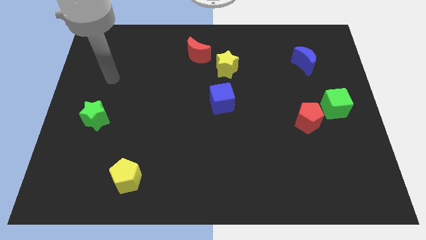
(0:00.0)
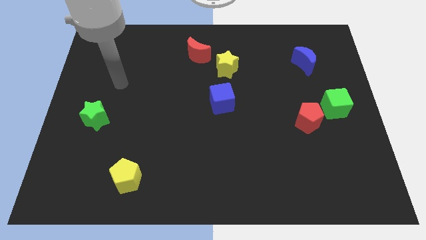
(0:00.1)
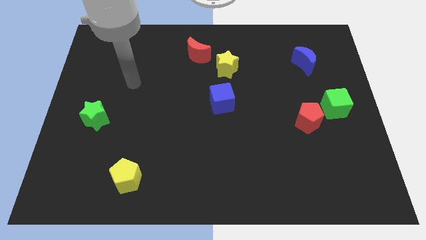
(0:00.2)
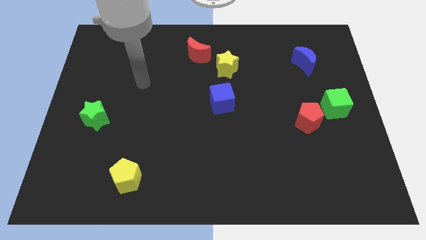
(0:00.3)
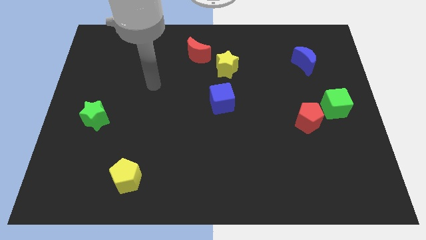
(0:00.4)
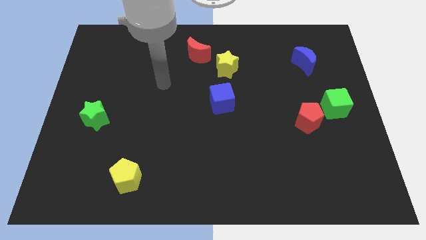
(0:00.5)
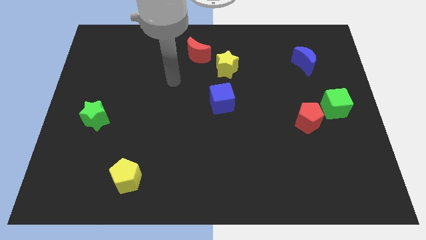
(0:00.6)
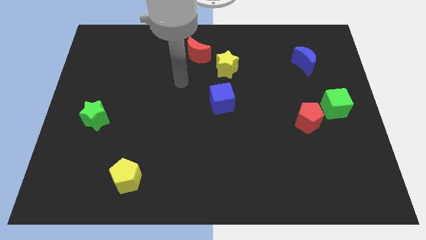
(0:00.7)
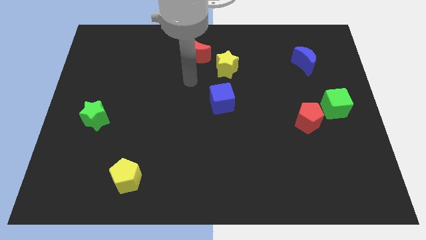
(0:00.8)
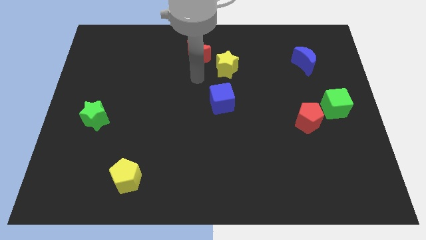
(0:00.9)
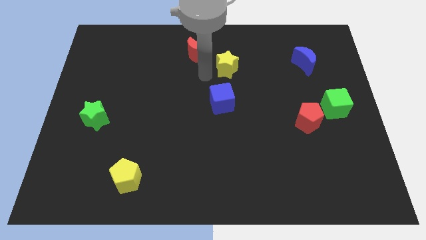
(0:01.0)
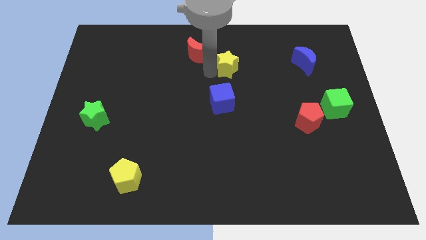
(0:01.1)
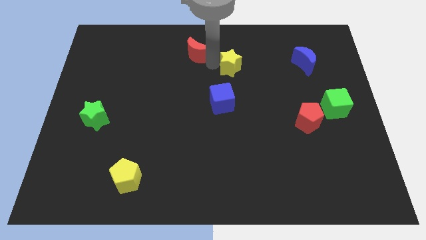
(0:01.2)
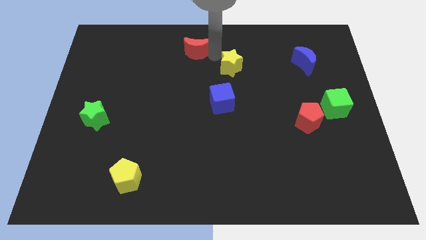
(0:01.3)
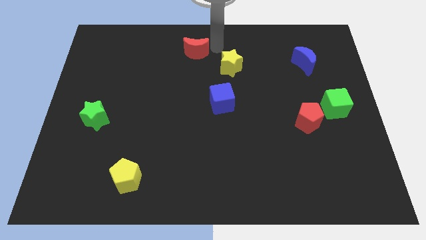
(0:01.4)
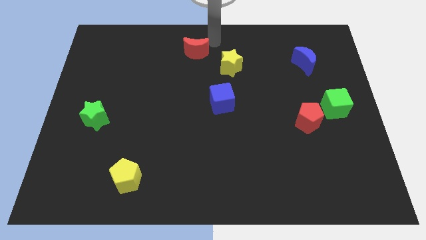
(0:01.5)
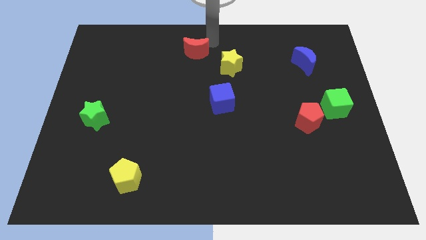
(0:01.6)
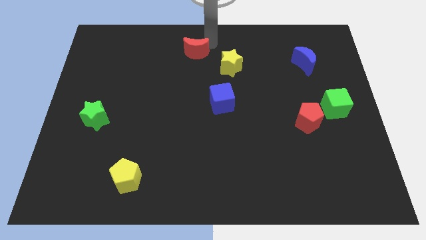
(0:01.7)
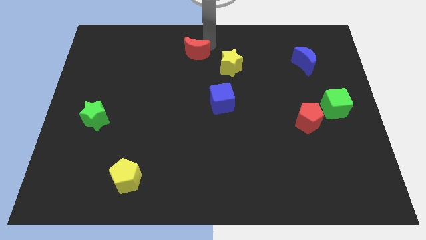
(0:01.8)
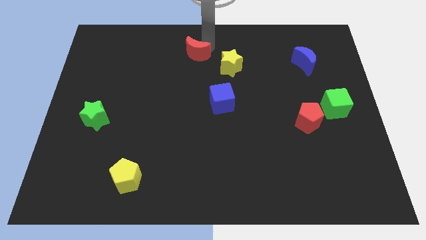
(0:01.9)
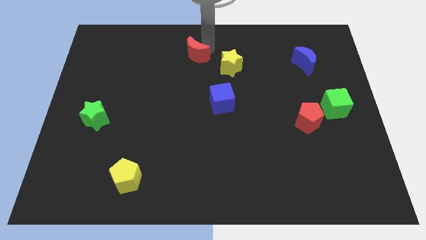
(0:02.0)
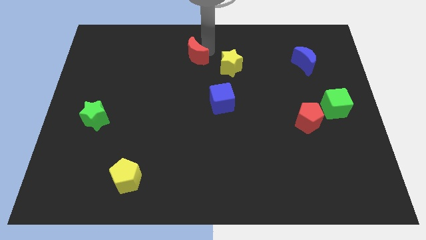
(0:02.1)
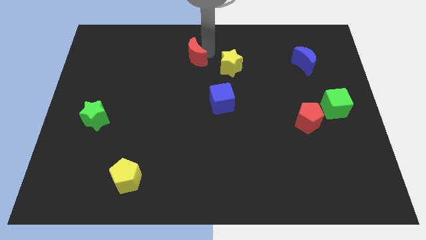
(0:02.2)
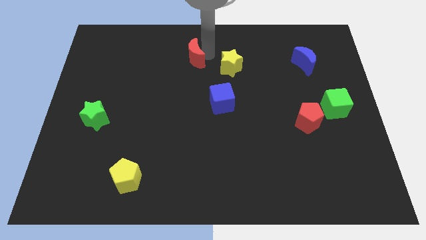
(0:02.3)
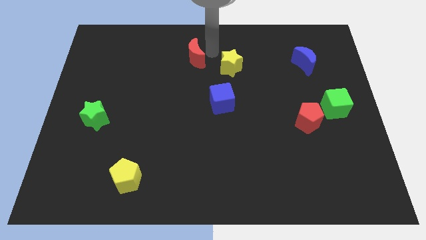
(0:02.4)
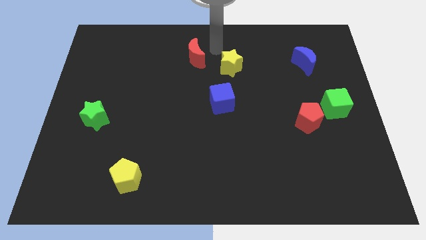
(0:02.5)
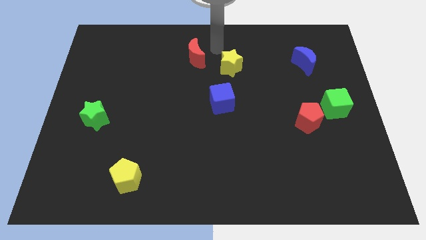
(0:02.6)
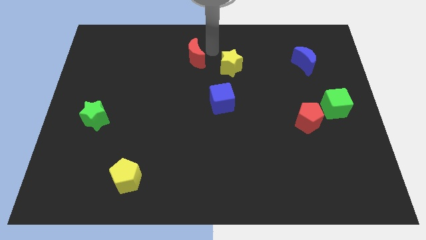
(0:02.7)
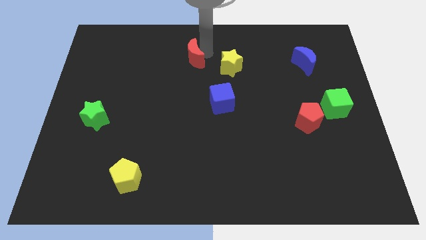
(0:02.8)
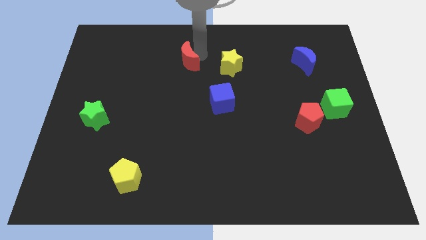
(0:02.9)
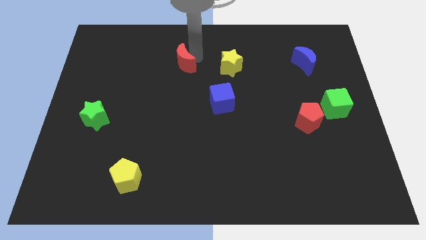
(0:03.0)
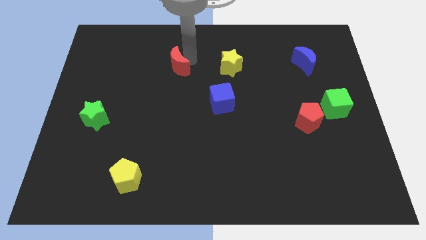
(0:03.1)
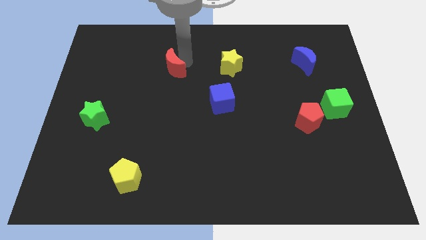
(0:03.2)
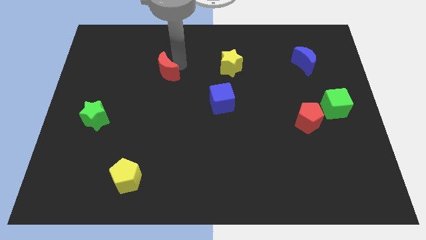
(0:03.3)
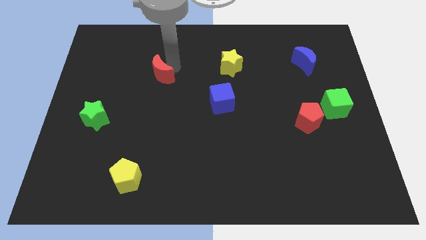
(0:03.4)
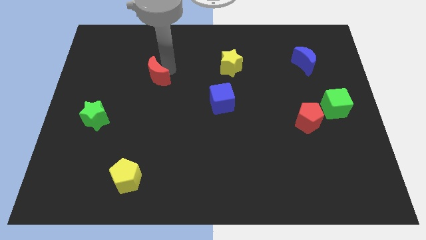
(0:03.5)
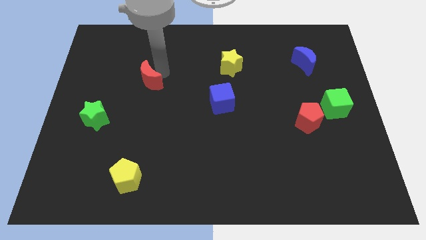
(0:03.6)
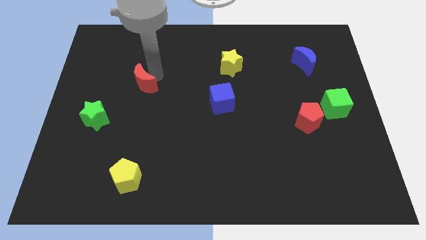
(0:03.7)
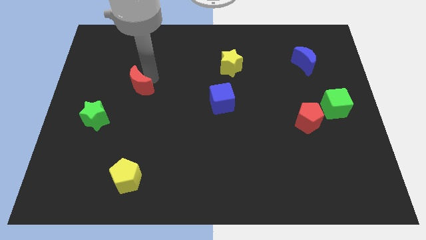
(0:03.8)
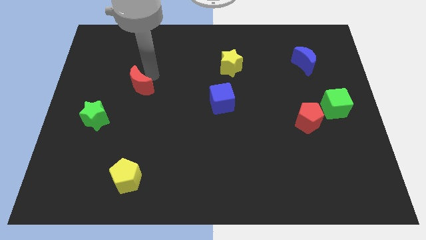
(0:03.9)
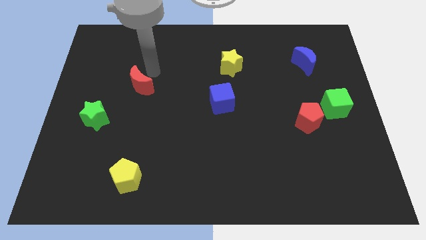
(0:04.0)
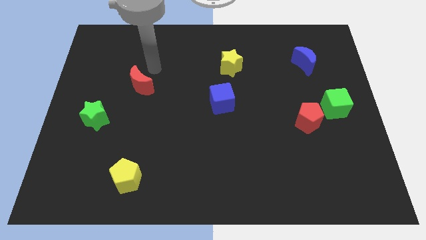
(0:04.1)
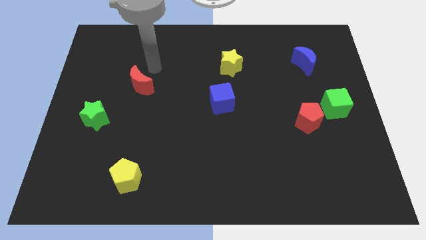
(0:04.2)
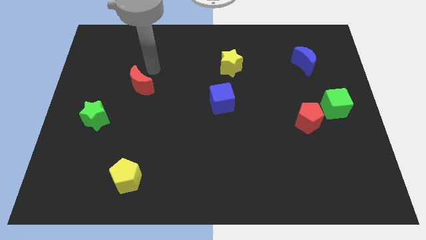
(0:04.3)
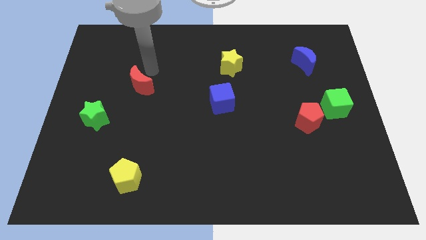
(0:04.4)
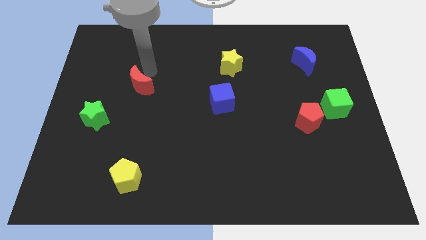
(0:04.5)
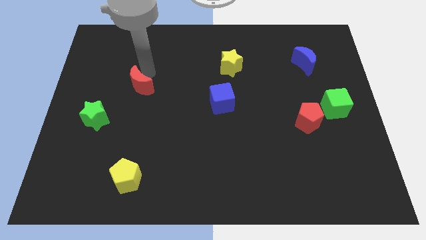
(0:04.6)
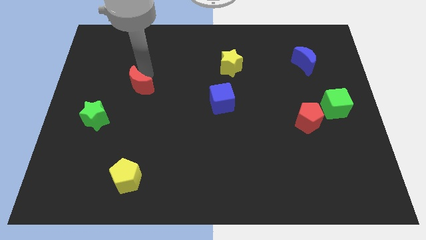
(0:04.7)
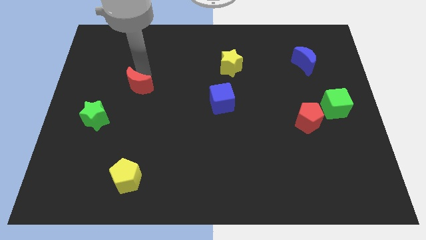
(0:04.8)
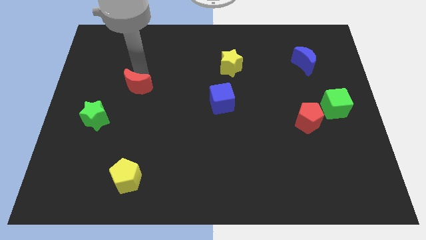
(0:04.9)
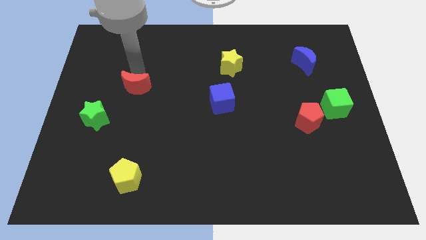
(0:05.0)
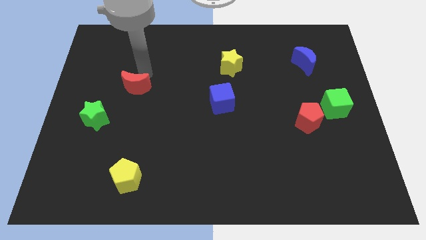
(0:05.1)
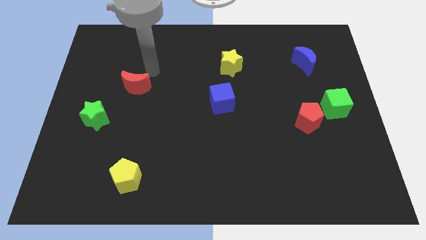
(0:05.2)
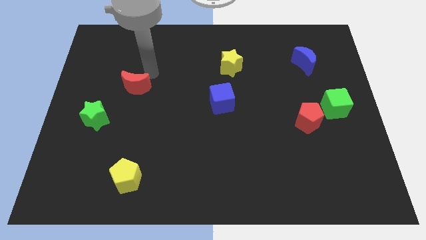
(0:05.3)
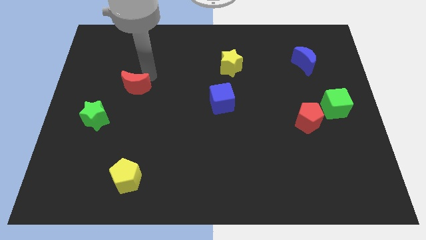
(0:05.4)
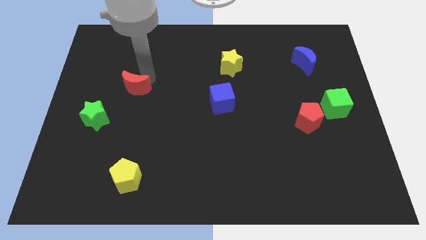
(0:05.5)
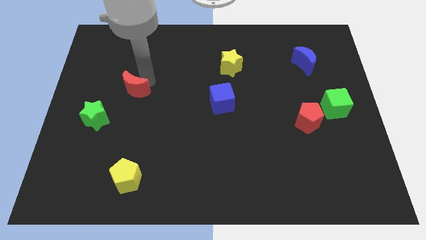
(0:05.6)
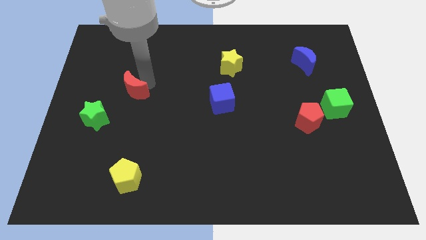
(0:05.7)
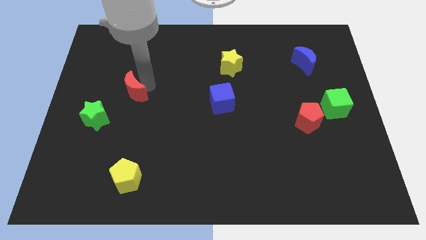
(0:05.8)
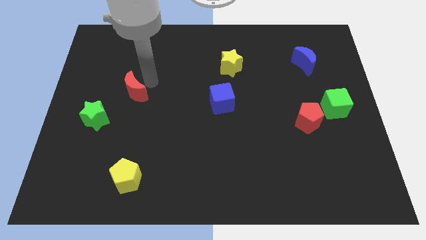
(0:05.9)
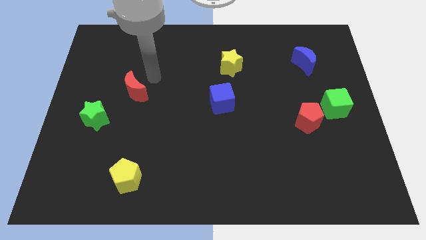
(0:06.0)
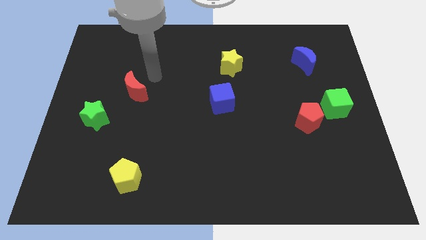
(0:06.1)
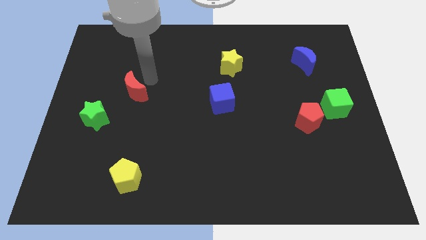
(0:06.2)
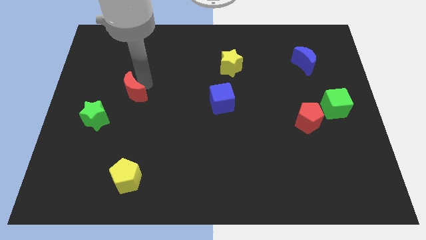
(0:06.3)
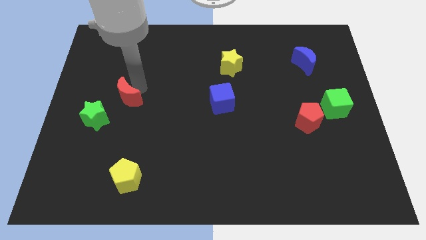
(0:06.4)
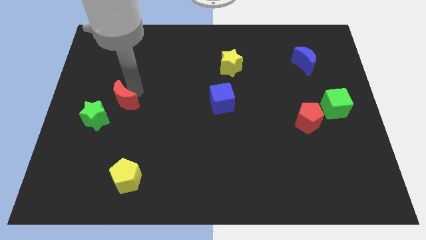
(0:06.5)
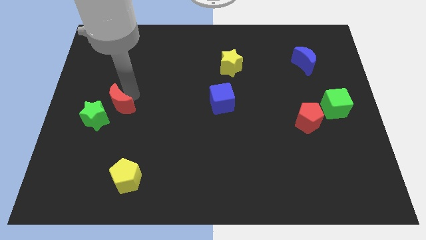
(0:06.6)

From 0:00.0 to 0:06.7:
slide the red moon close to the green star
